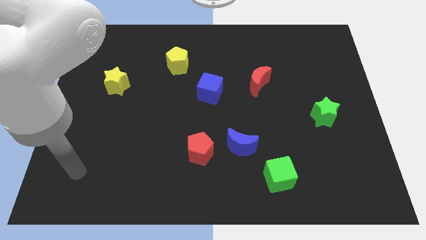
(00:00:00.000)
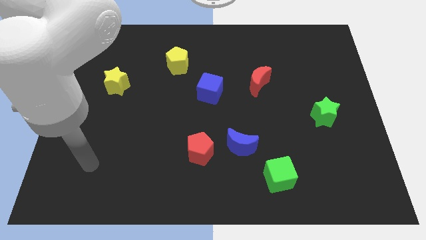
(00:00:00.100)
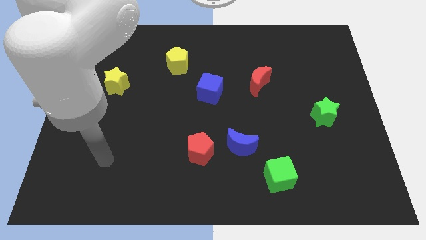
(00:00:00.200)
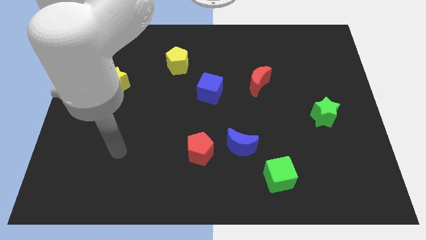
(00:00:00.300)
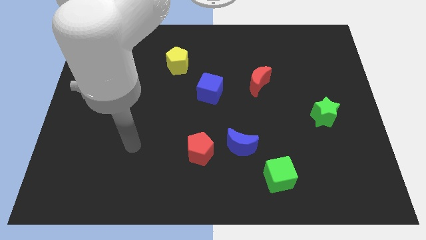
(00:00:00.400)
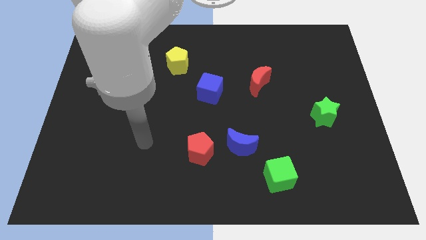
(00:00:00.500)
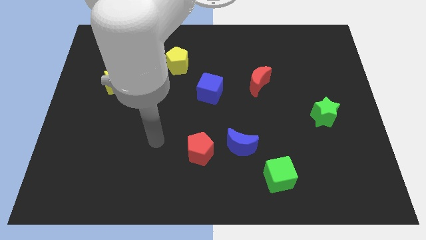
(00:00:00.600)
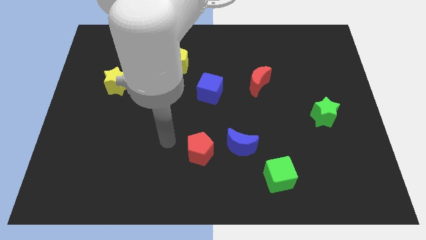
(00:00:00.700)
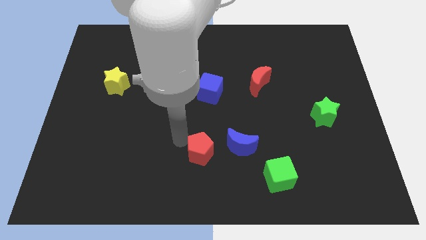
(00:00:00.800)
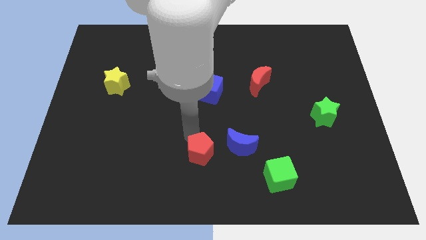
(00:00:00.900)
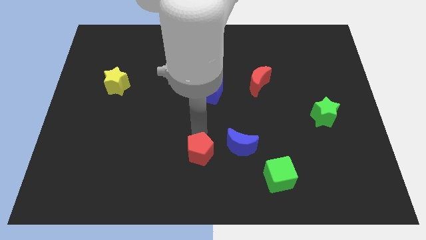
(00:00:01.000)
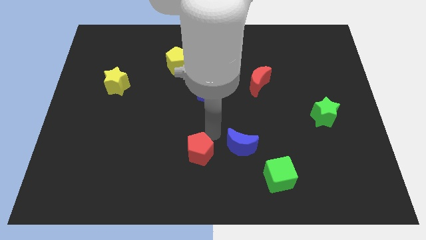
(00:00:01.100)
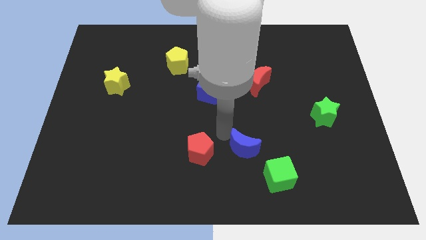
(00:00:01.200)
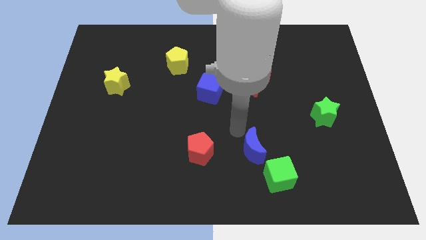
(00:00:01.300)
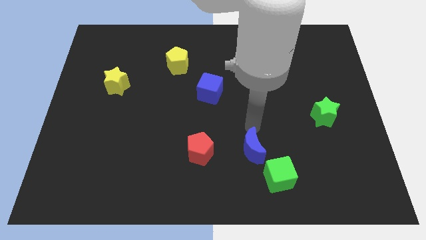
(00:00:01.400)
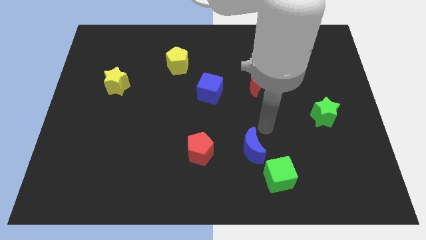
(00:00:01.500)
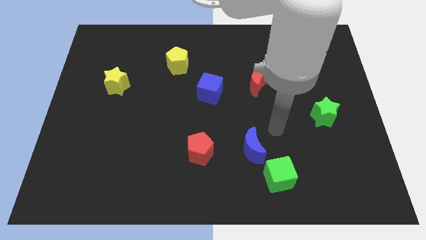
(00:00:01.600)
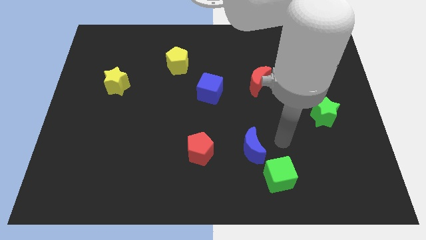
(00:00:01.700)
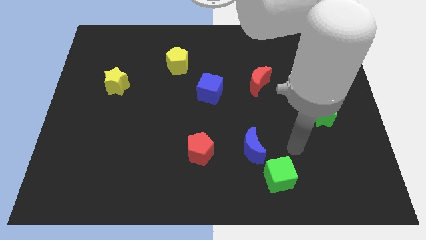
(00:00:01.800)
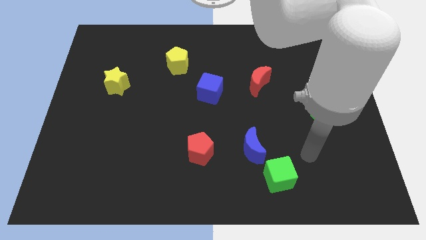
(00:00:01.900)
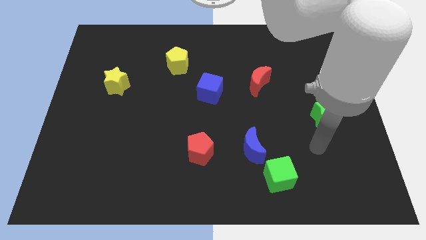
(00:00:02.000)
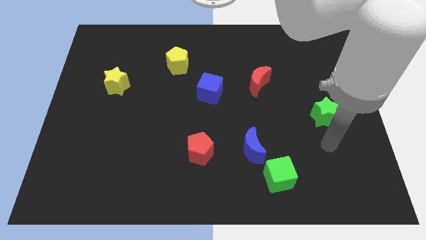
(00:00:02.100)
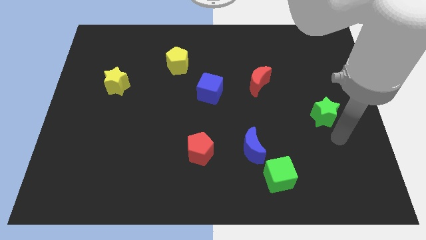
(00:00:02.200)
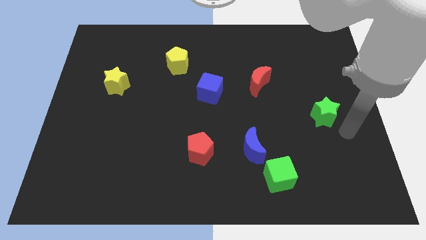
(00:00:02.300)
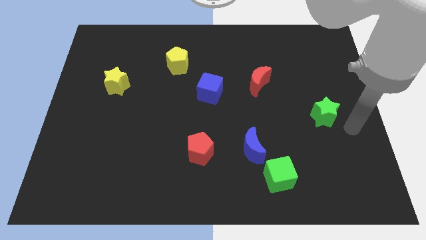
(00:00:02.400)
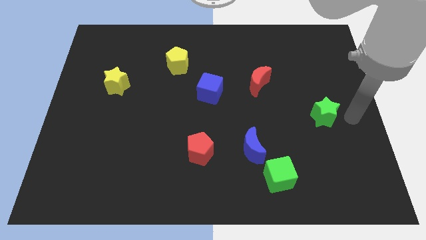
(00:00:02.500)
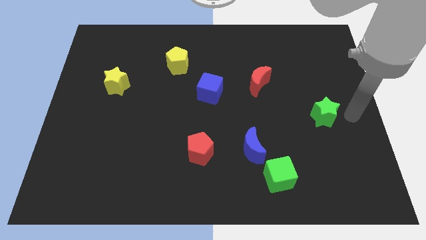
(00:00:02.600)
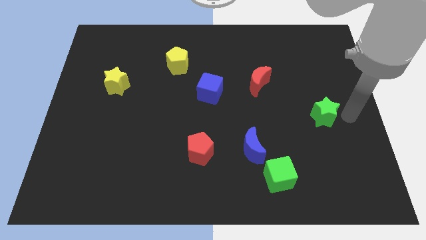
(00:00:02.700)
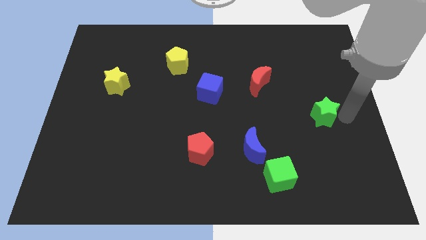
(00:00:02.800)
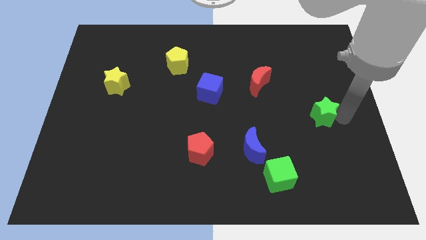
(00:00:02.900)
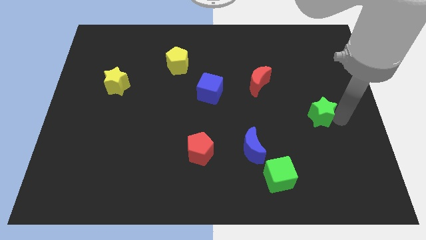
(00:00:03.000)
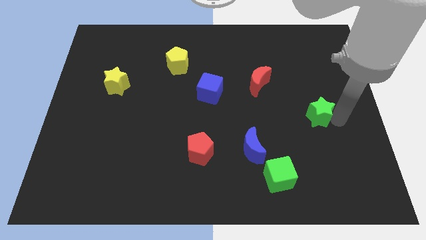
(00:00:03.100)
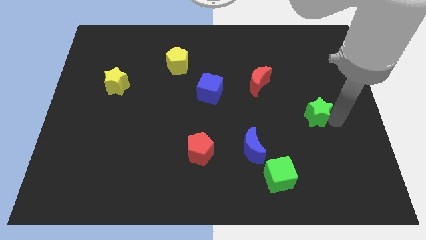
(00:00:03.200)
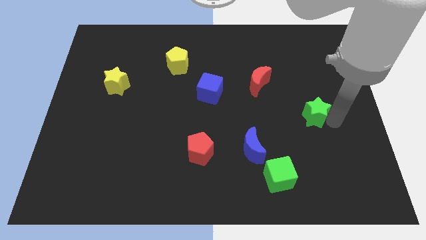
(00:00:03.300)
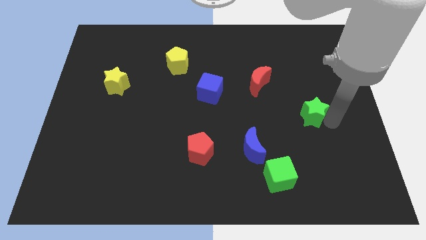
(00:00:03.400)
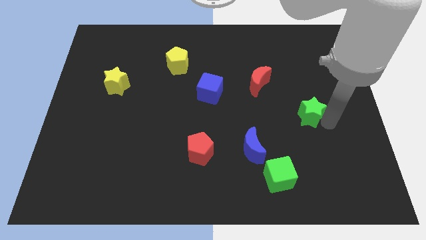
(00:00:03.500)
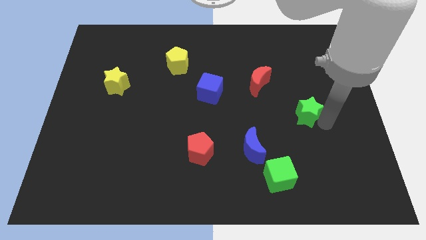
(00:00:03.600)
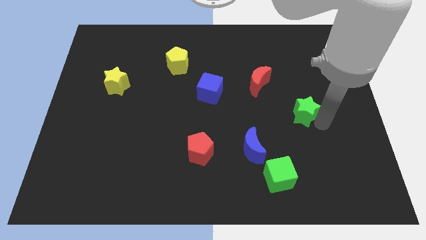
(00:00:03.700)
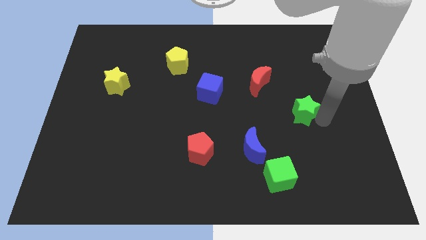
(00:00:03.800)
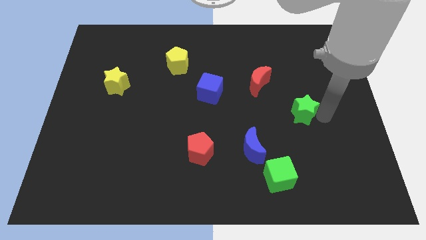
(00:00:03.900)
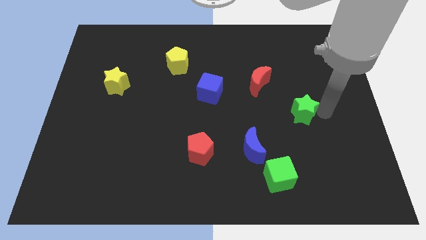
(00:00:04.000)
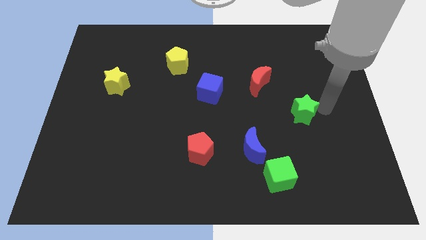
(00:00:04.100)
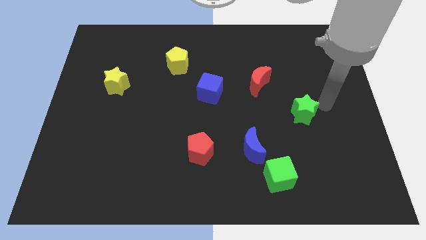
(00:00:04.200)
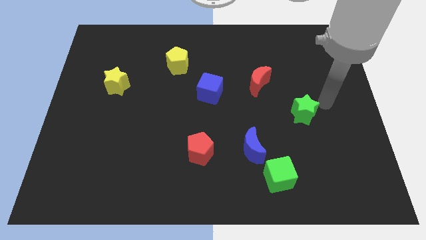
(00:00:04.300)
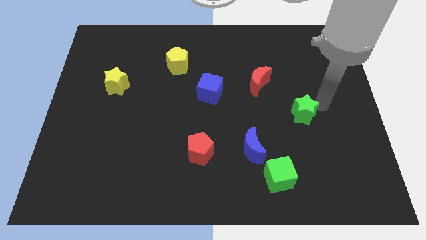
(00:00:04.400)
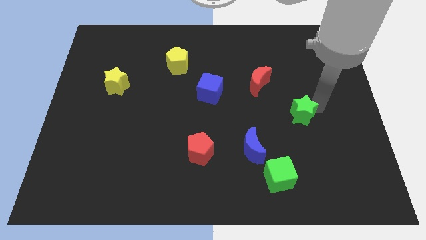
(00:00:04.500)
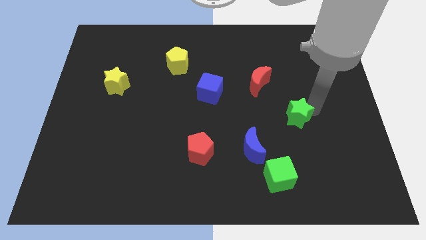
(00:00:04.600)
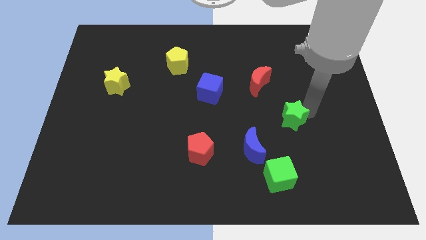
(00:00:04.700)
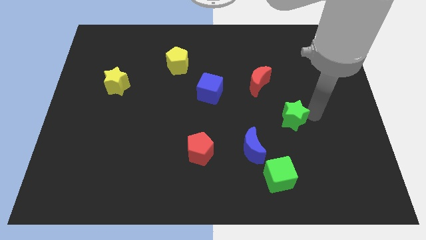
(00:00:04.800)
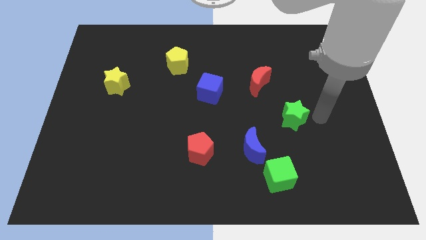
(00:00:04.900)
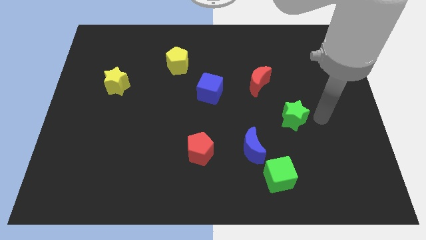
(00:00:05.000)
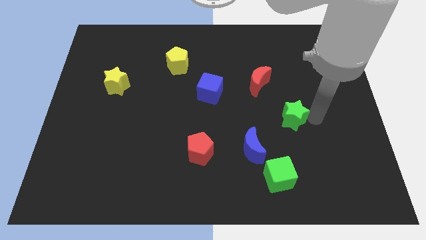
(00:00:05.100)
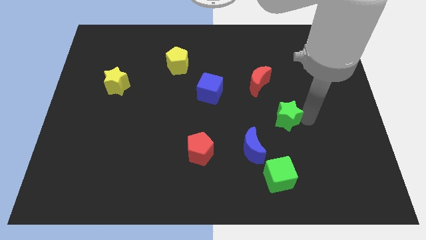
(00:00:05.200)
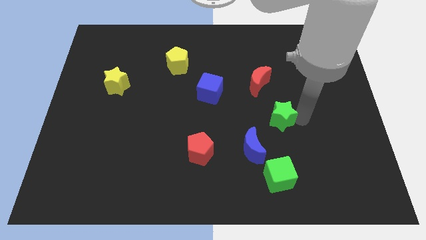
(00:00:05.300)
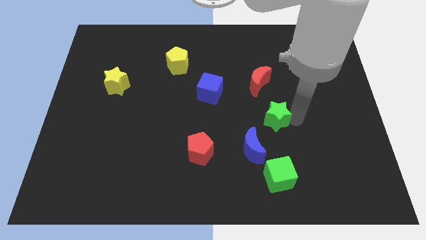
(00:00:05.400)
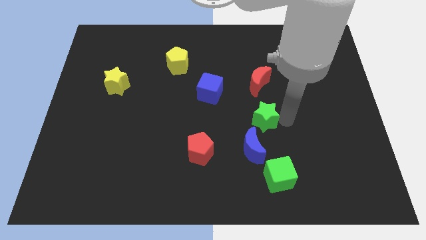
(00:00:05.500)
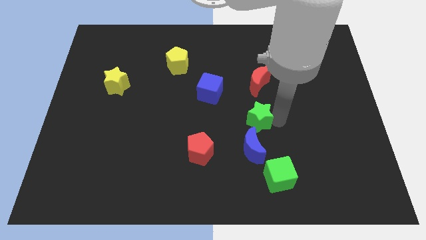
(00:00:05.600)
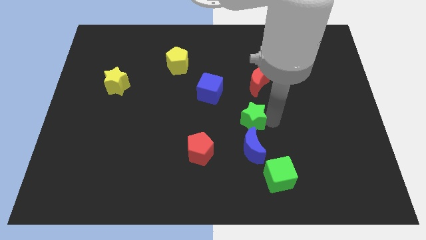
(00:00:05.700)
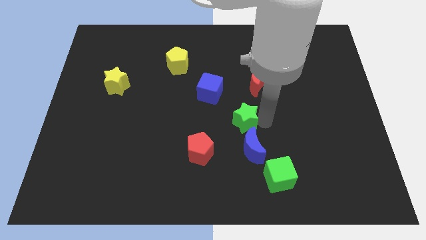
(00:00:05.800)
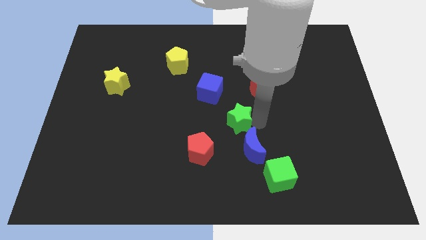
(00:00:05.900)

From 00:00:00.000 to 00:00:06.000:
move the green star left

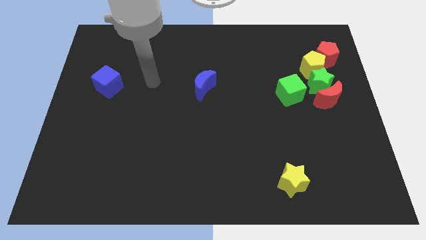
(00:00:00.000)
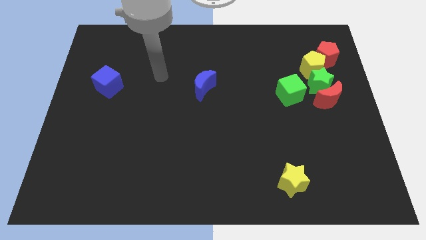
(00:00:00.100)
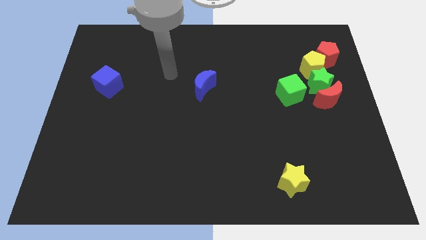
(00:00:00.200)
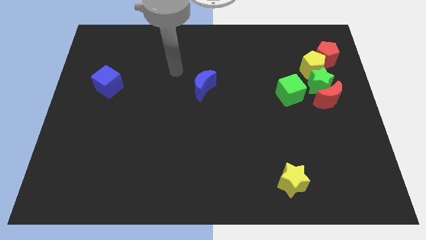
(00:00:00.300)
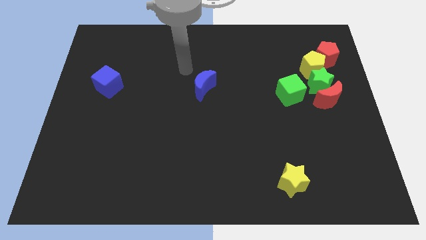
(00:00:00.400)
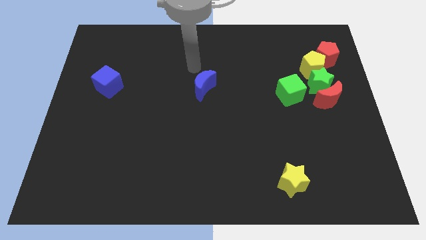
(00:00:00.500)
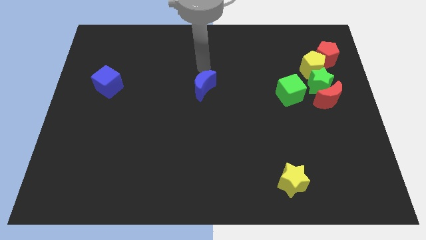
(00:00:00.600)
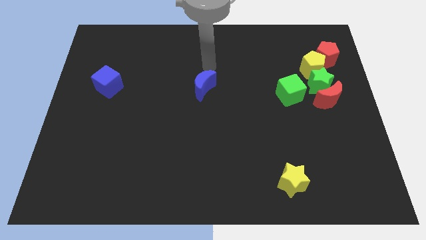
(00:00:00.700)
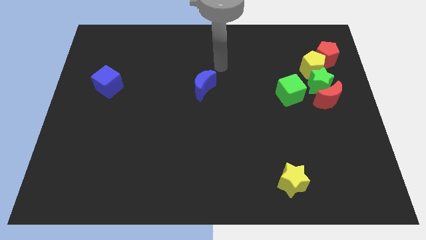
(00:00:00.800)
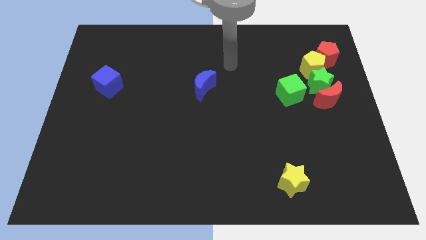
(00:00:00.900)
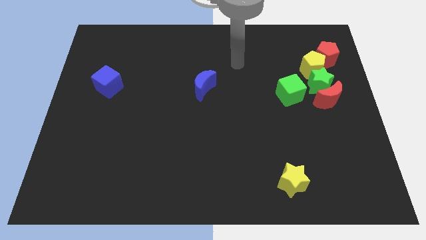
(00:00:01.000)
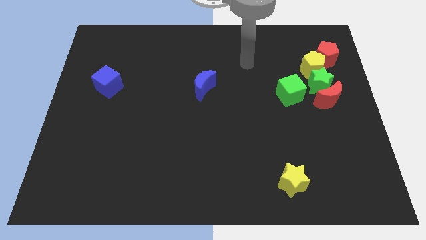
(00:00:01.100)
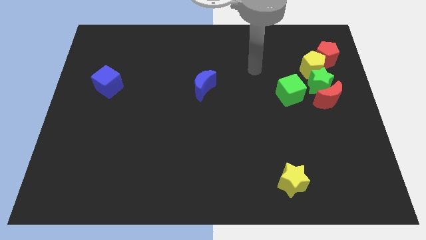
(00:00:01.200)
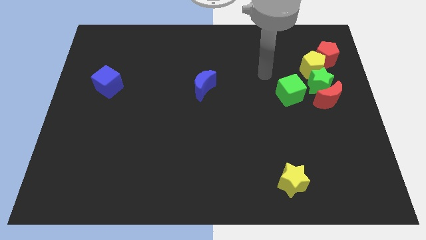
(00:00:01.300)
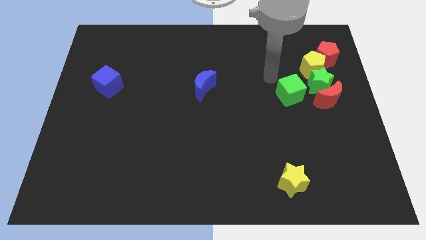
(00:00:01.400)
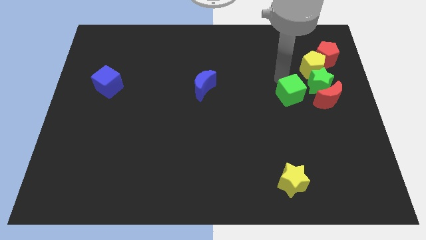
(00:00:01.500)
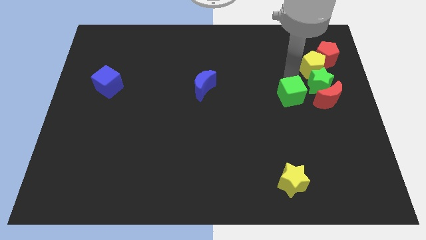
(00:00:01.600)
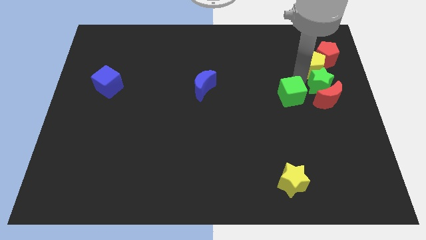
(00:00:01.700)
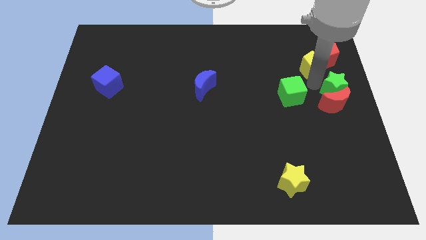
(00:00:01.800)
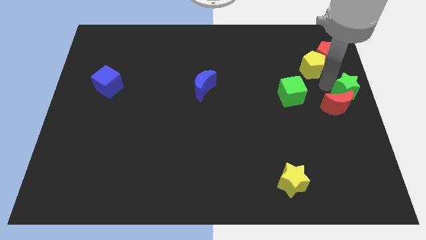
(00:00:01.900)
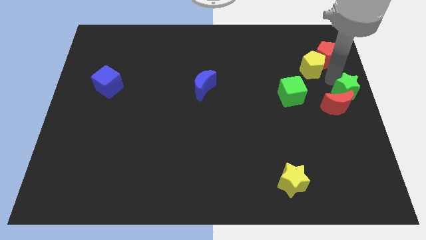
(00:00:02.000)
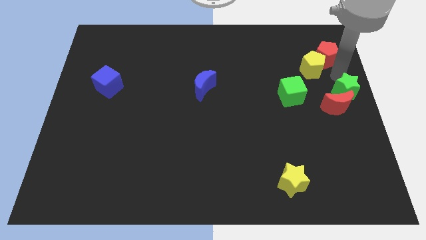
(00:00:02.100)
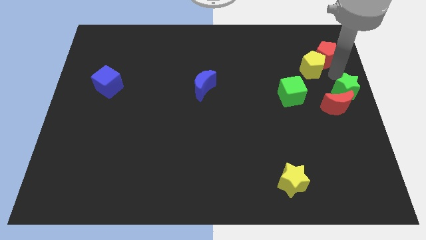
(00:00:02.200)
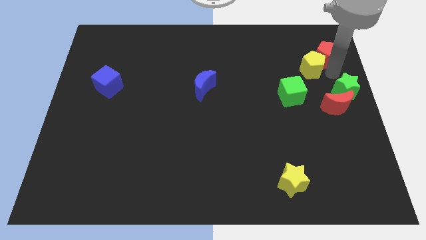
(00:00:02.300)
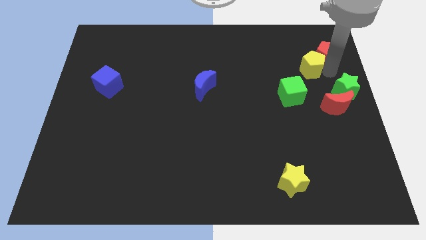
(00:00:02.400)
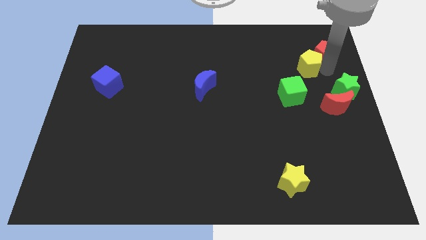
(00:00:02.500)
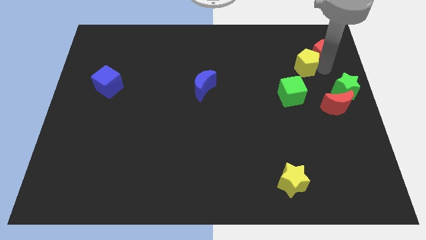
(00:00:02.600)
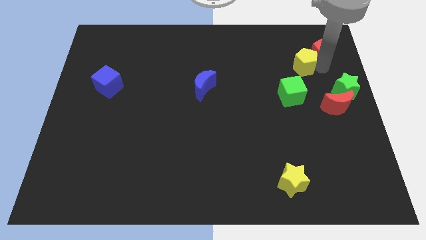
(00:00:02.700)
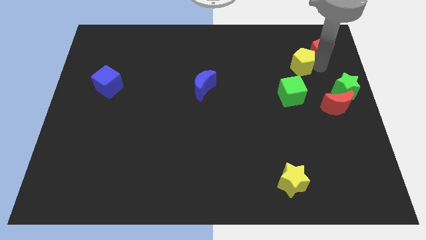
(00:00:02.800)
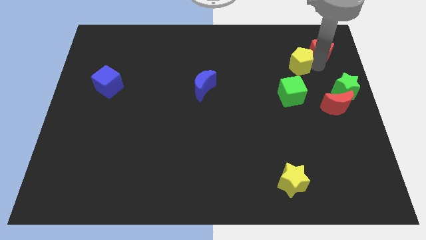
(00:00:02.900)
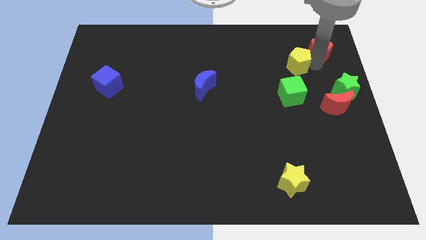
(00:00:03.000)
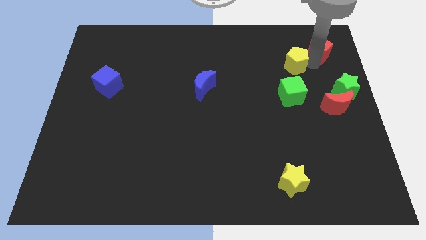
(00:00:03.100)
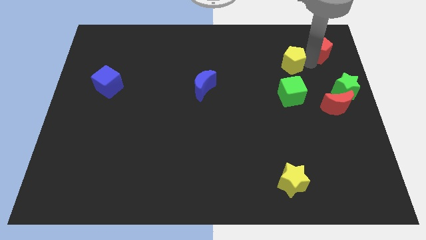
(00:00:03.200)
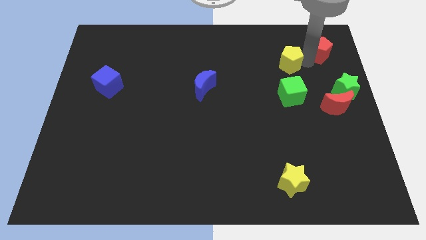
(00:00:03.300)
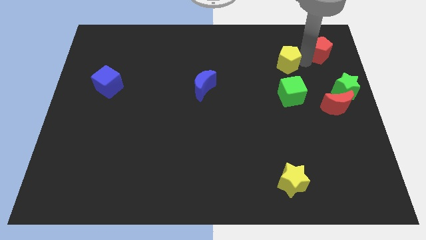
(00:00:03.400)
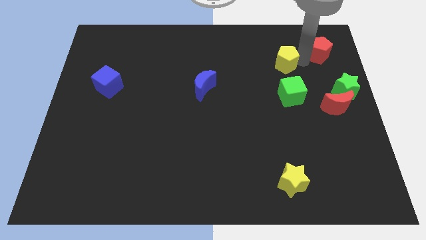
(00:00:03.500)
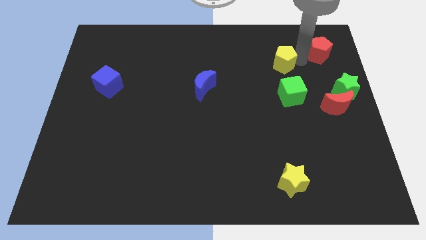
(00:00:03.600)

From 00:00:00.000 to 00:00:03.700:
slightly move the yellow pentagon left
